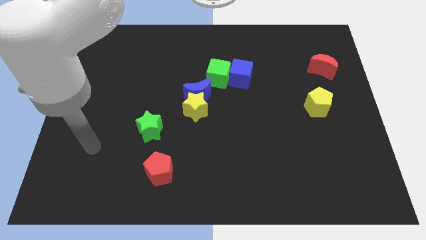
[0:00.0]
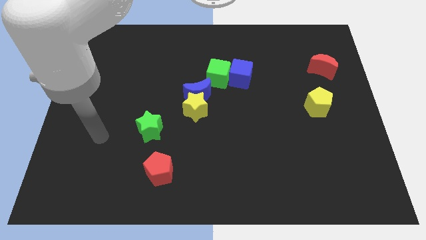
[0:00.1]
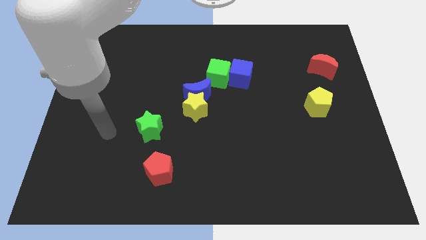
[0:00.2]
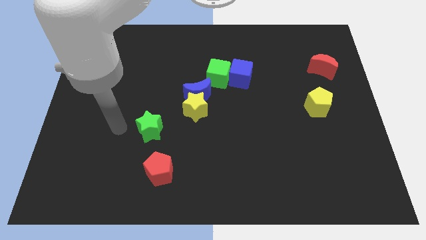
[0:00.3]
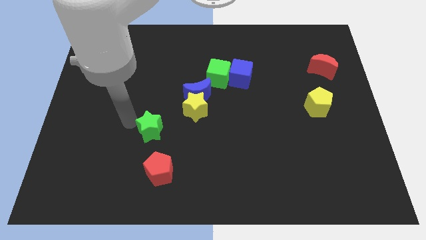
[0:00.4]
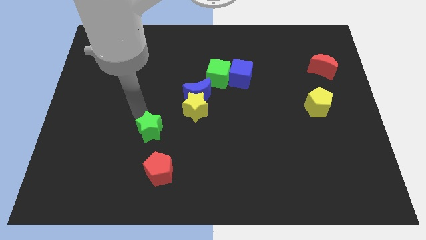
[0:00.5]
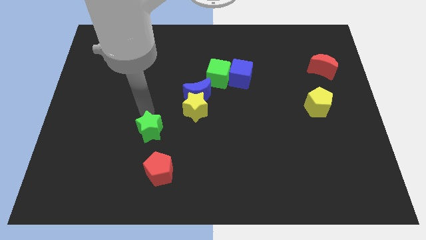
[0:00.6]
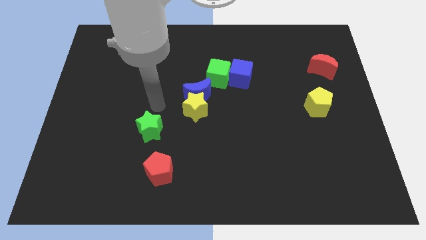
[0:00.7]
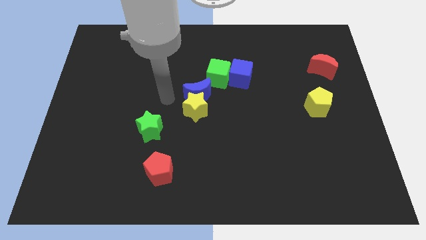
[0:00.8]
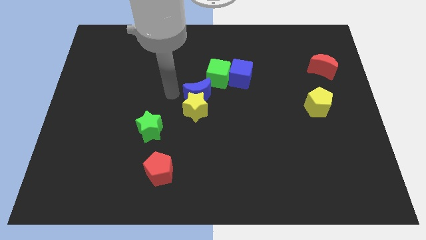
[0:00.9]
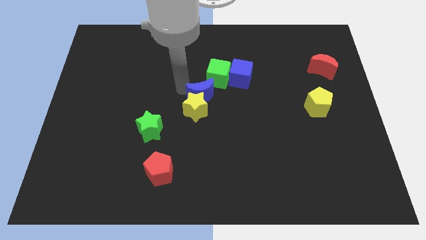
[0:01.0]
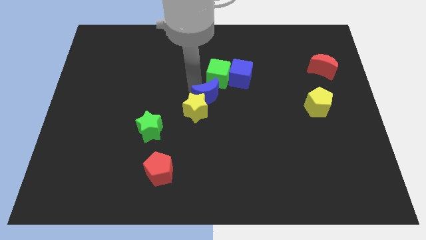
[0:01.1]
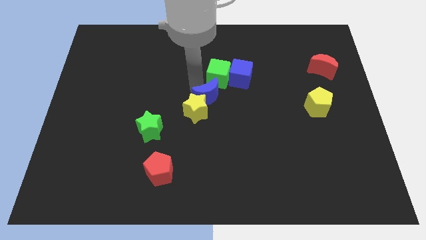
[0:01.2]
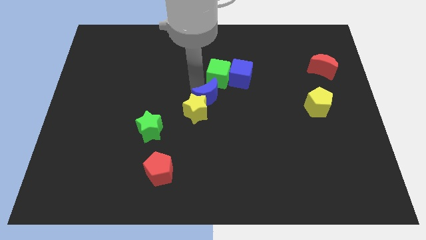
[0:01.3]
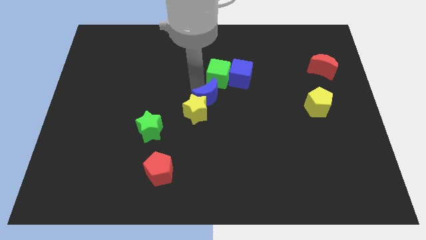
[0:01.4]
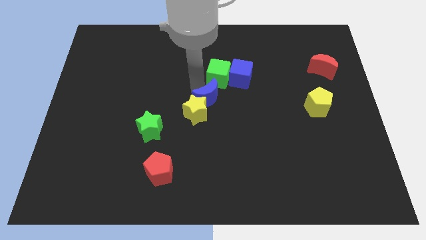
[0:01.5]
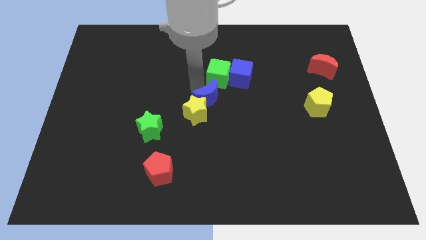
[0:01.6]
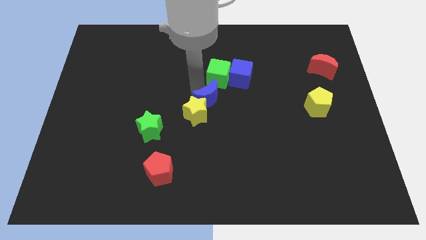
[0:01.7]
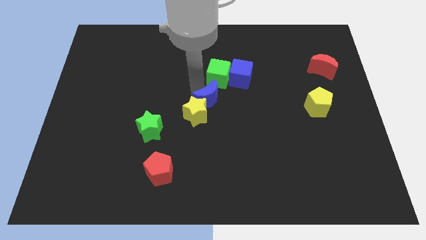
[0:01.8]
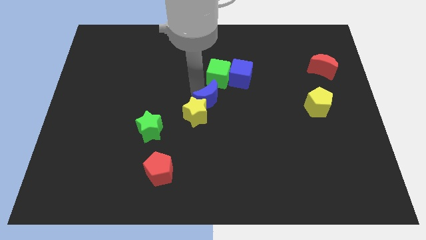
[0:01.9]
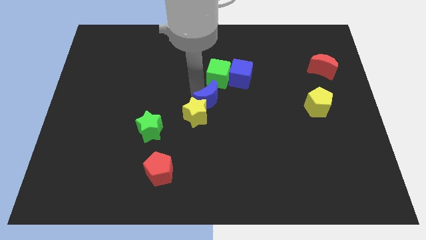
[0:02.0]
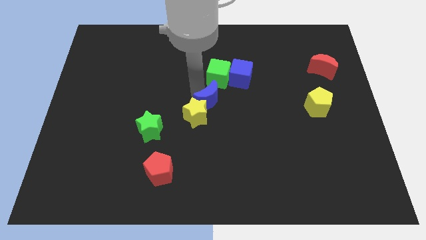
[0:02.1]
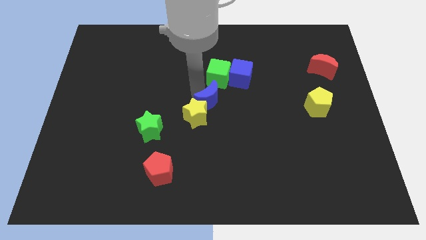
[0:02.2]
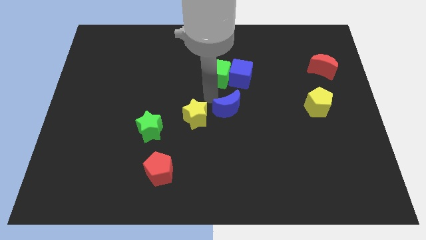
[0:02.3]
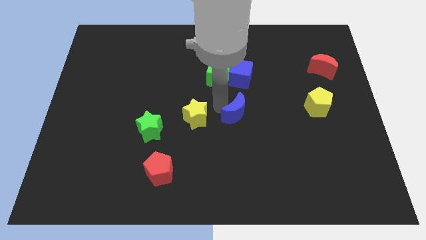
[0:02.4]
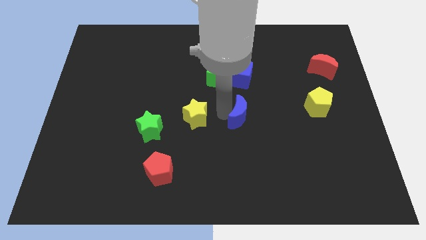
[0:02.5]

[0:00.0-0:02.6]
pull the yellow star apart from the blue moon

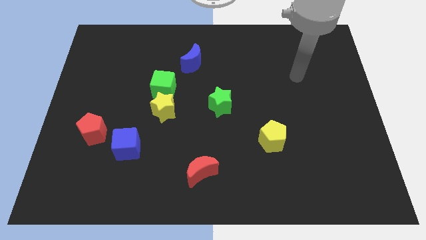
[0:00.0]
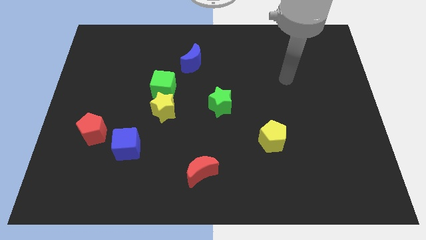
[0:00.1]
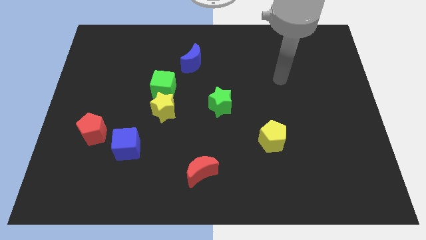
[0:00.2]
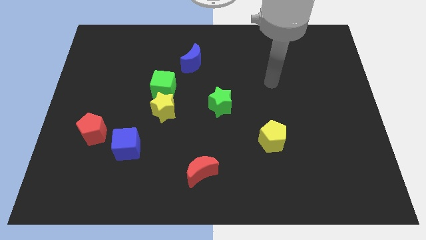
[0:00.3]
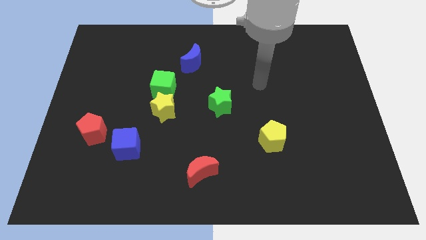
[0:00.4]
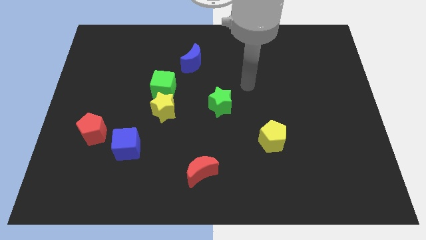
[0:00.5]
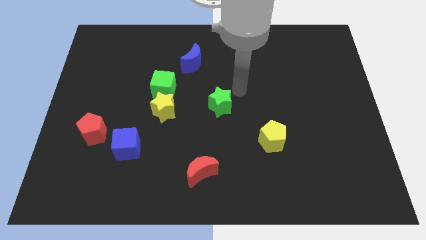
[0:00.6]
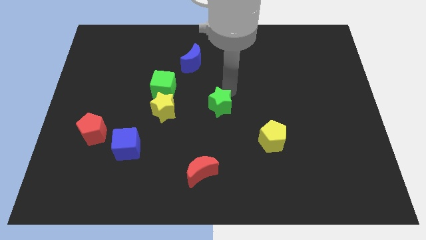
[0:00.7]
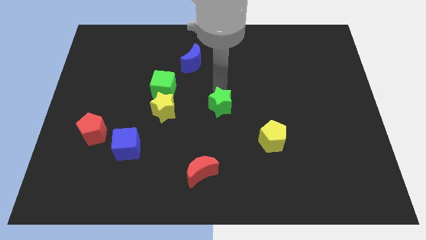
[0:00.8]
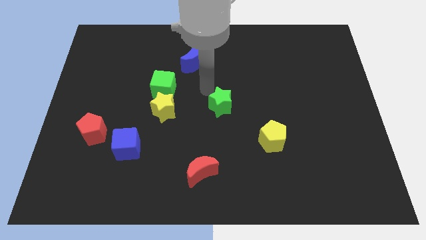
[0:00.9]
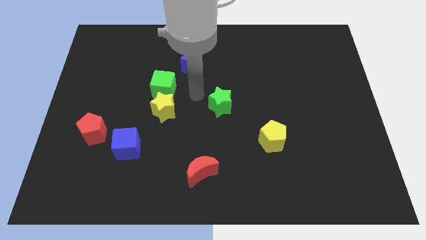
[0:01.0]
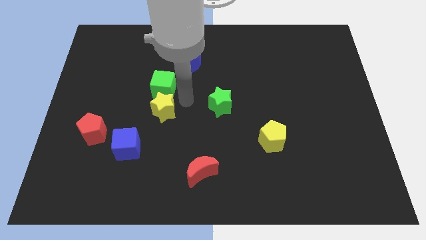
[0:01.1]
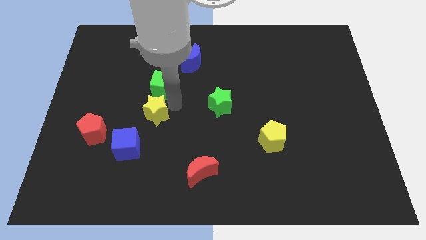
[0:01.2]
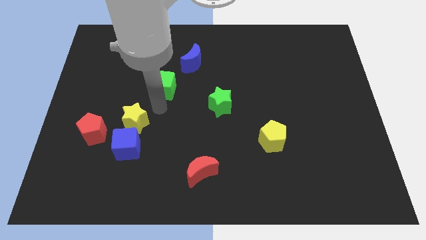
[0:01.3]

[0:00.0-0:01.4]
separate the green cube from the yellow star

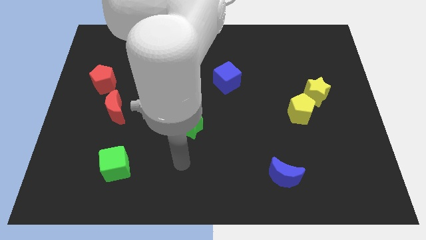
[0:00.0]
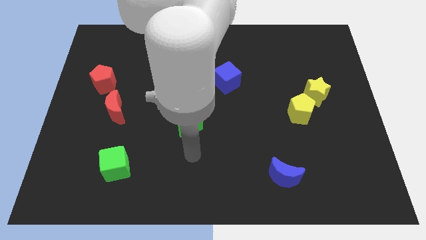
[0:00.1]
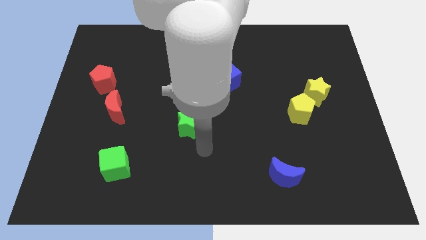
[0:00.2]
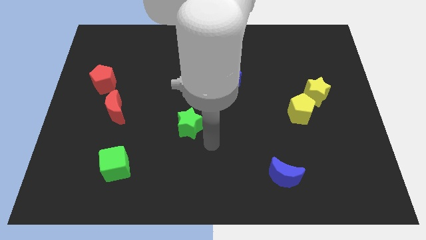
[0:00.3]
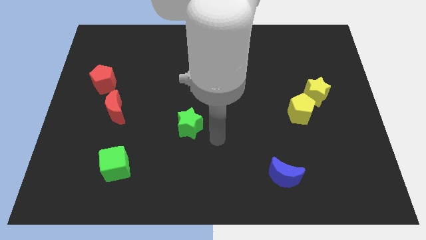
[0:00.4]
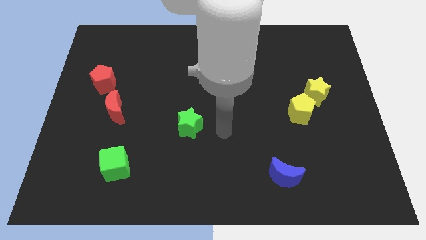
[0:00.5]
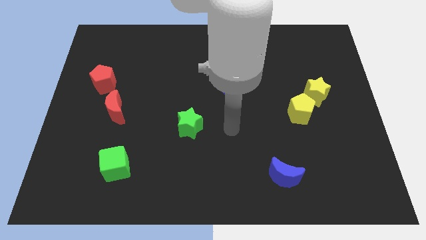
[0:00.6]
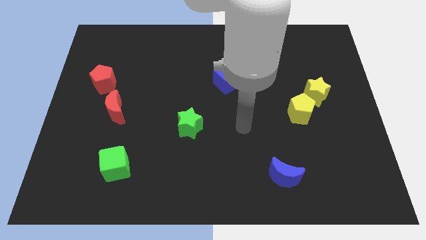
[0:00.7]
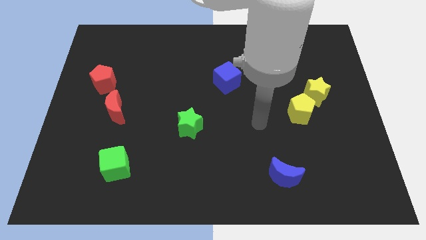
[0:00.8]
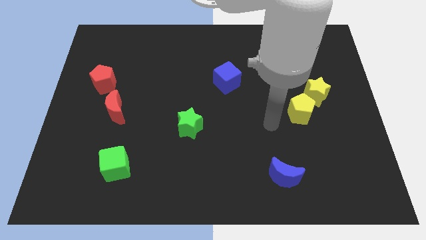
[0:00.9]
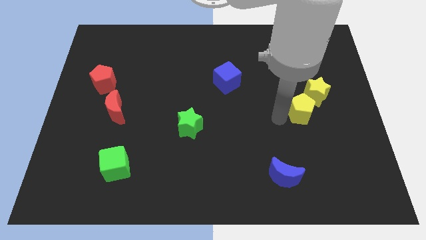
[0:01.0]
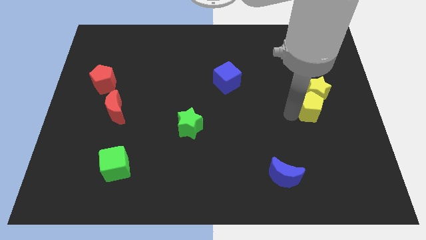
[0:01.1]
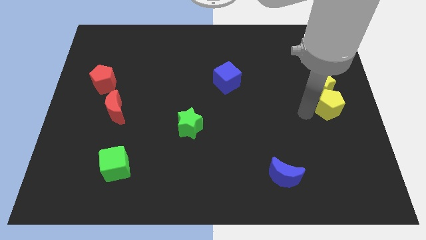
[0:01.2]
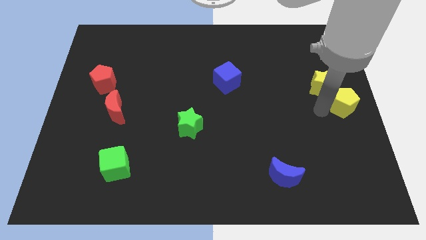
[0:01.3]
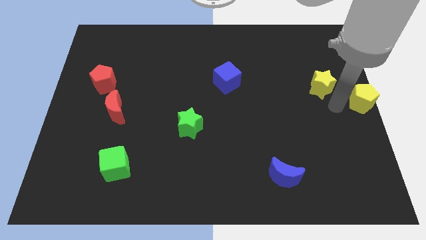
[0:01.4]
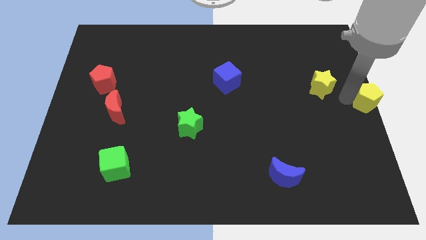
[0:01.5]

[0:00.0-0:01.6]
separate the yellow star from the yellow pentagon

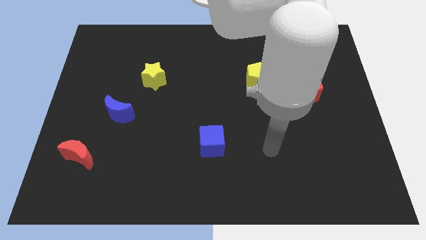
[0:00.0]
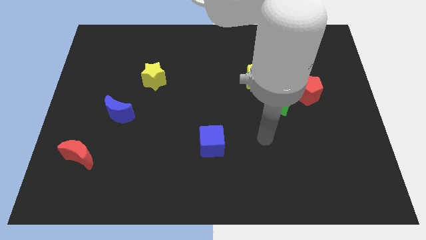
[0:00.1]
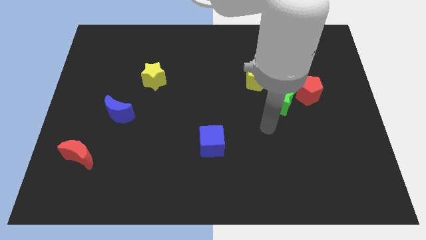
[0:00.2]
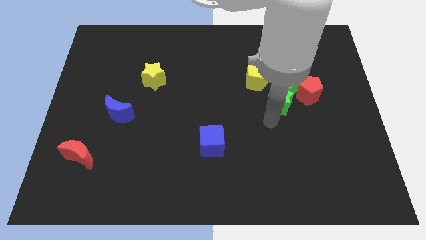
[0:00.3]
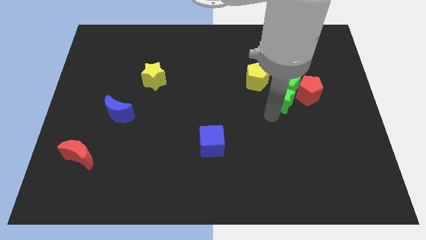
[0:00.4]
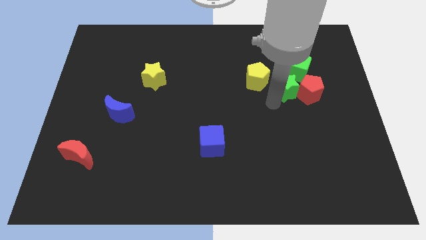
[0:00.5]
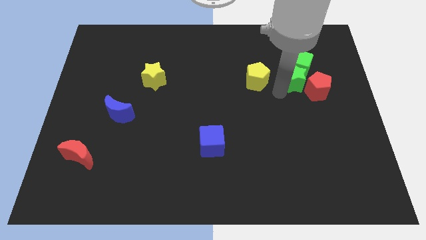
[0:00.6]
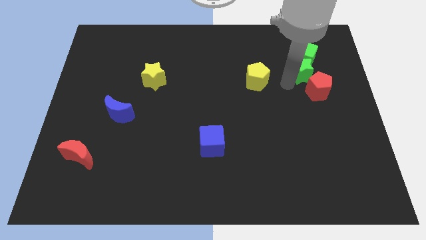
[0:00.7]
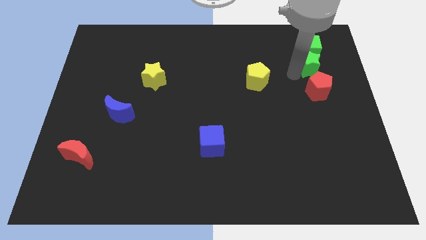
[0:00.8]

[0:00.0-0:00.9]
move the green cube away from the group of blocks

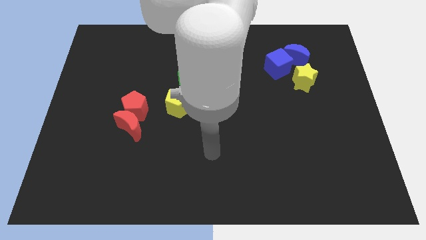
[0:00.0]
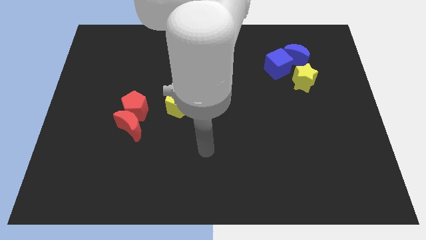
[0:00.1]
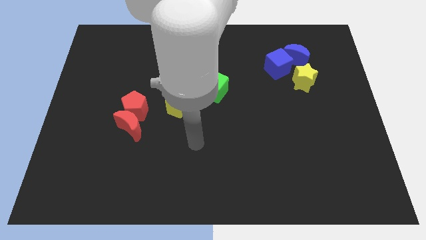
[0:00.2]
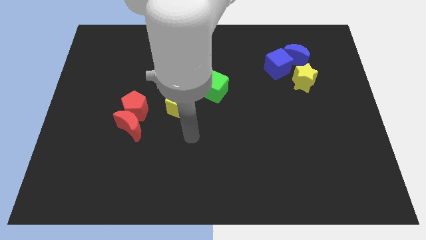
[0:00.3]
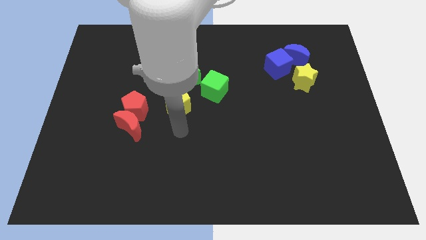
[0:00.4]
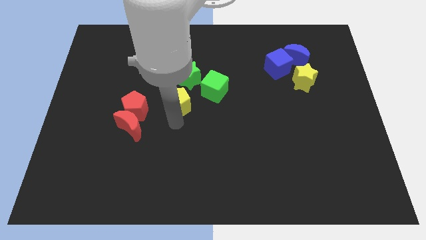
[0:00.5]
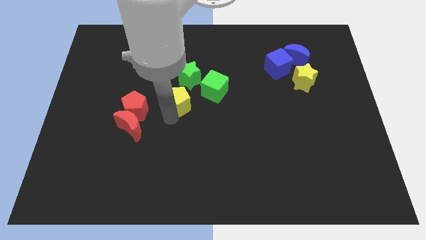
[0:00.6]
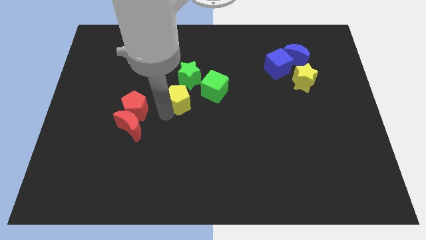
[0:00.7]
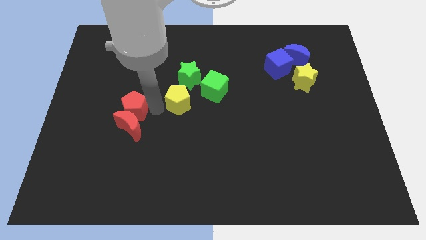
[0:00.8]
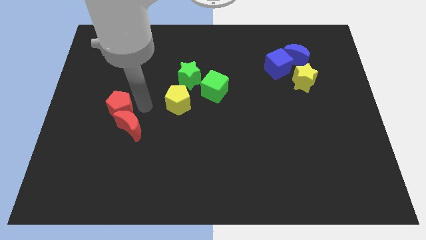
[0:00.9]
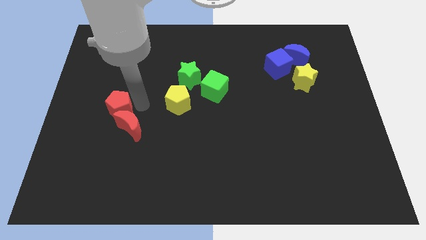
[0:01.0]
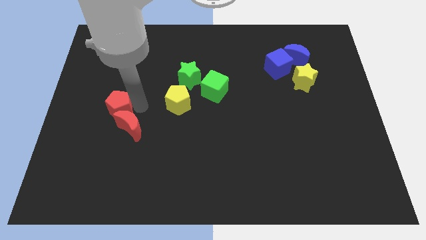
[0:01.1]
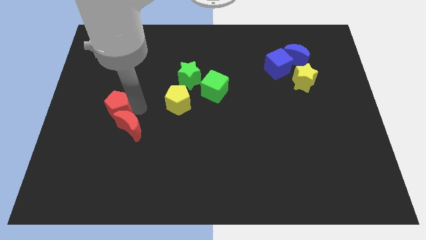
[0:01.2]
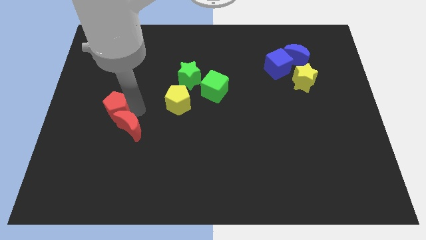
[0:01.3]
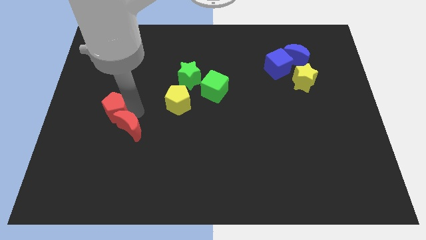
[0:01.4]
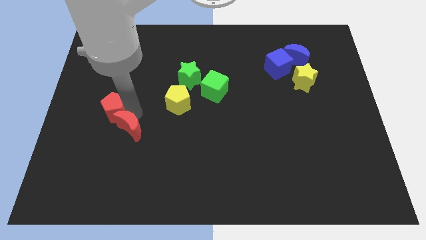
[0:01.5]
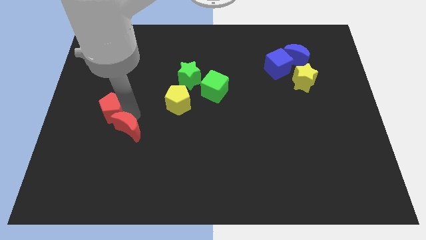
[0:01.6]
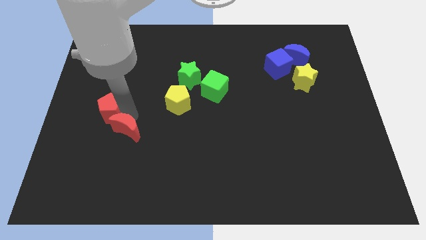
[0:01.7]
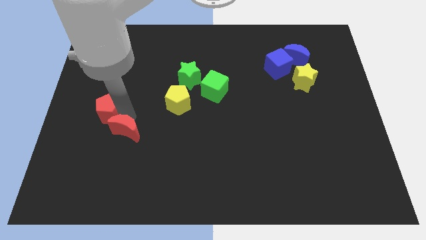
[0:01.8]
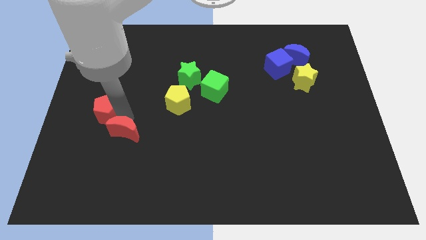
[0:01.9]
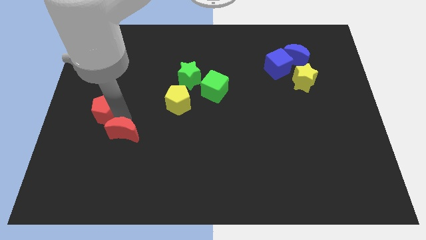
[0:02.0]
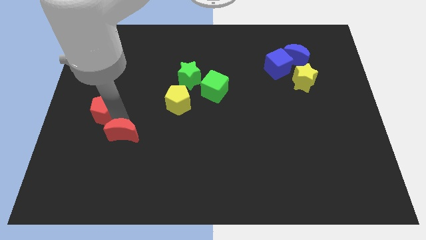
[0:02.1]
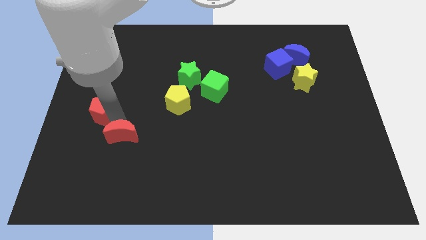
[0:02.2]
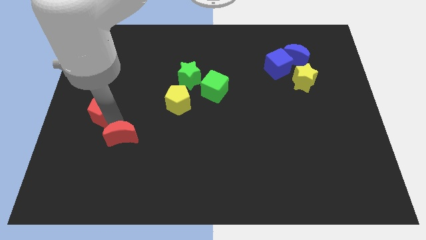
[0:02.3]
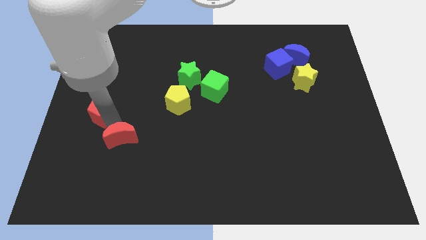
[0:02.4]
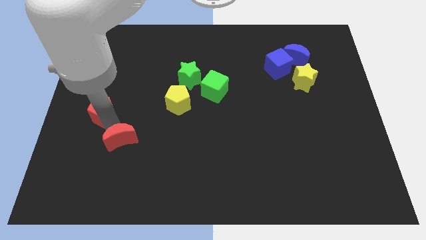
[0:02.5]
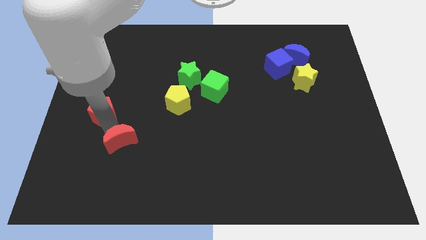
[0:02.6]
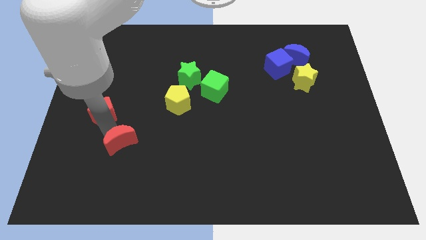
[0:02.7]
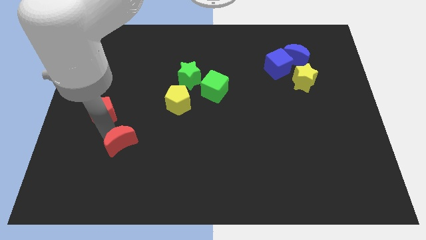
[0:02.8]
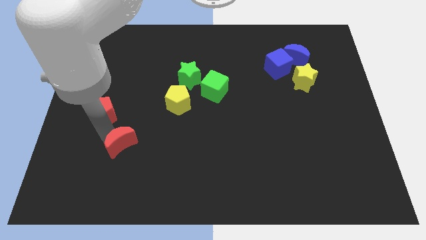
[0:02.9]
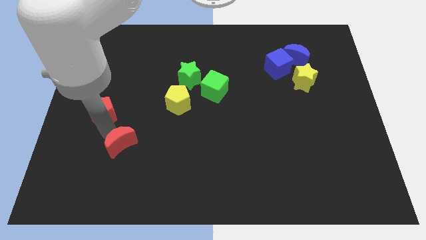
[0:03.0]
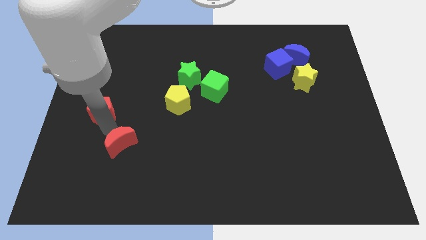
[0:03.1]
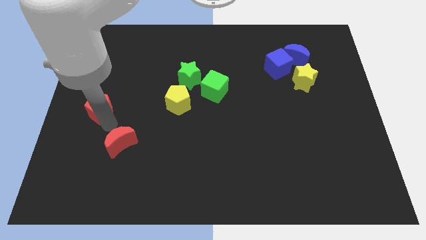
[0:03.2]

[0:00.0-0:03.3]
separate the red moon from the red pentagon
